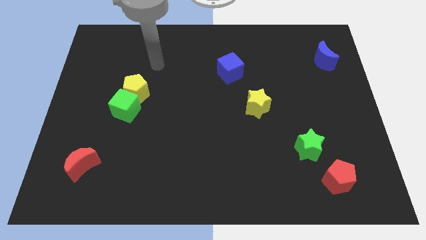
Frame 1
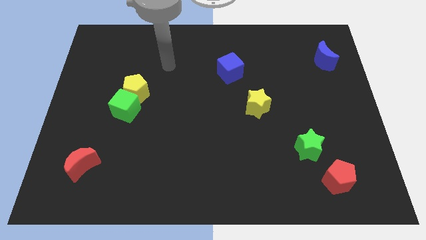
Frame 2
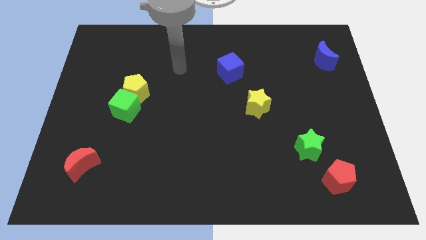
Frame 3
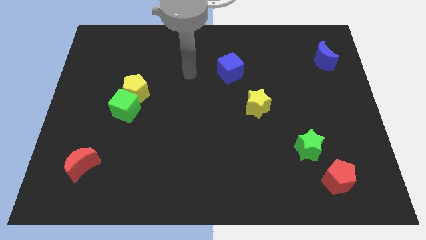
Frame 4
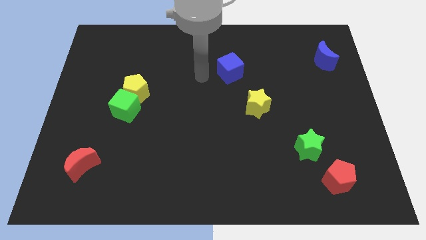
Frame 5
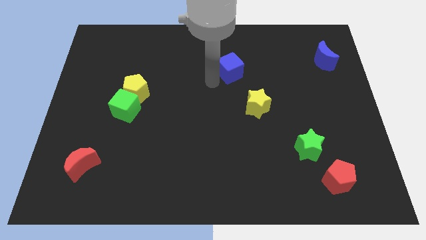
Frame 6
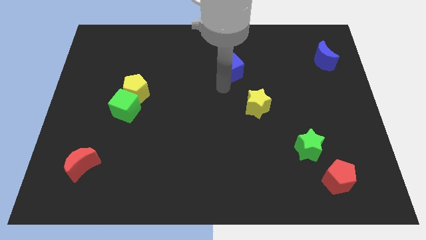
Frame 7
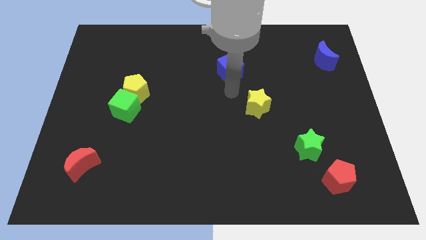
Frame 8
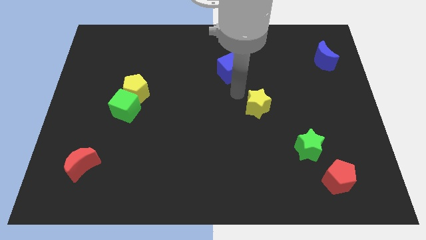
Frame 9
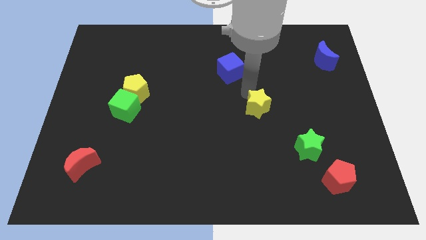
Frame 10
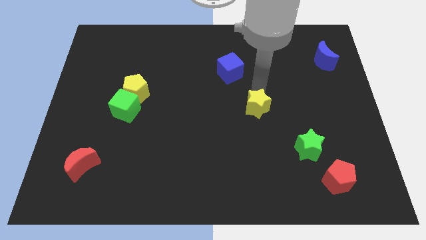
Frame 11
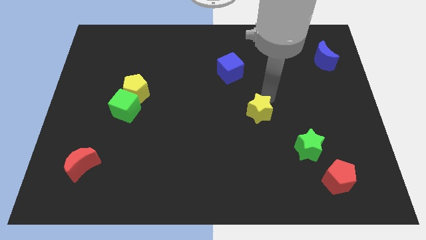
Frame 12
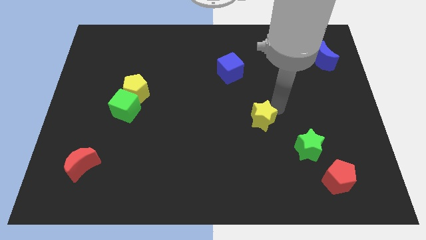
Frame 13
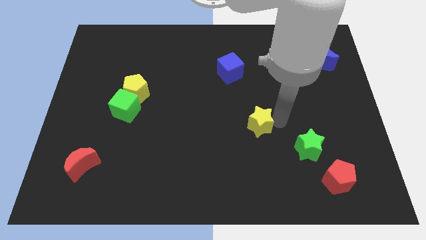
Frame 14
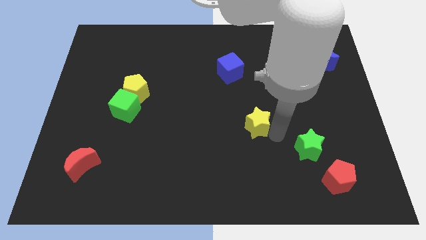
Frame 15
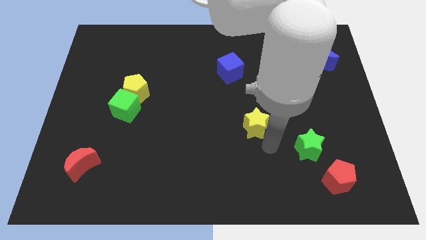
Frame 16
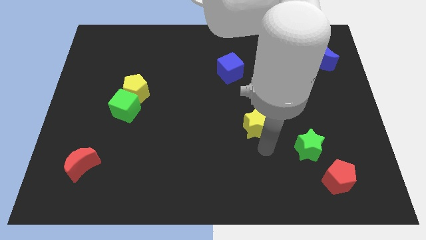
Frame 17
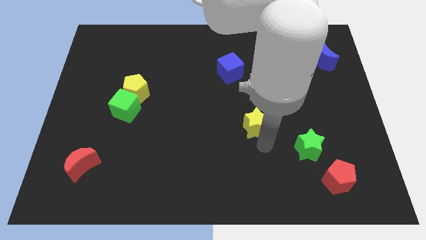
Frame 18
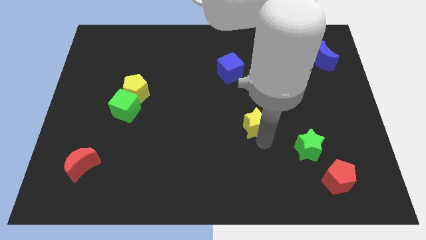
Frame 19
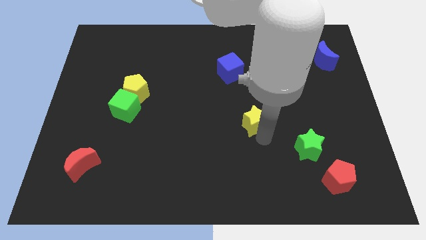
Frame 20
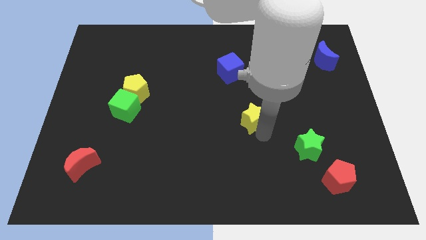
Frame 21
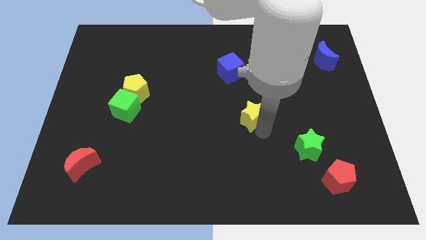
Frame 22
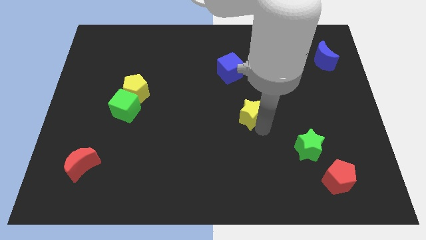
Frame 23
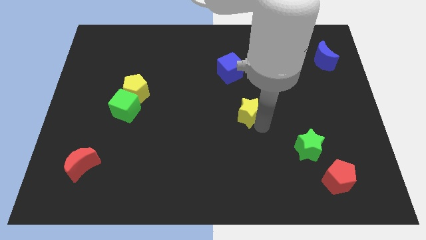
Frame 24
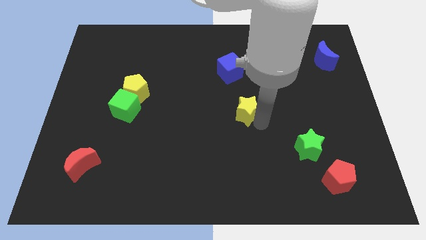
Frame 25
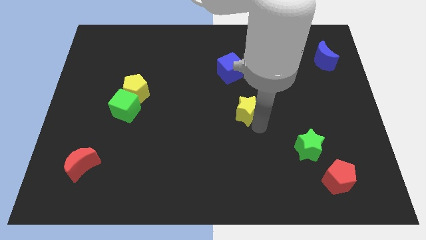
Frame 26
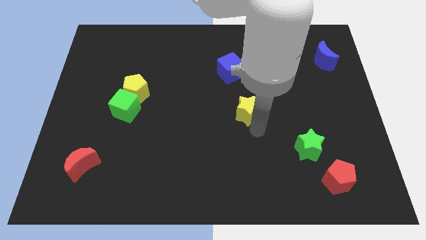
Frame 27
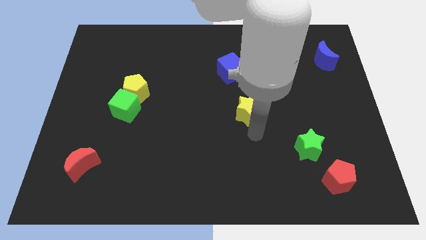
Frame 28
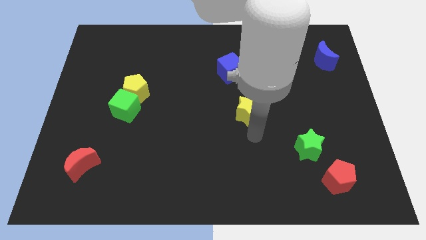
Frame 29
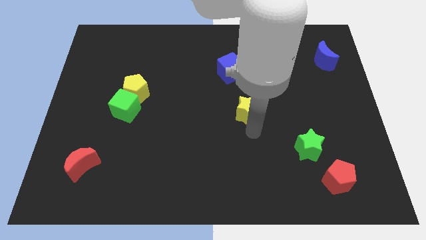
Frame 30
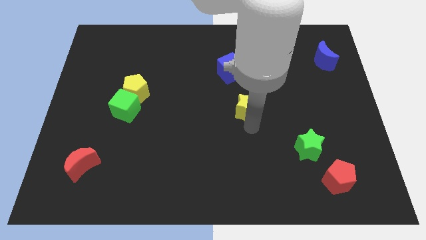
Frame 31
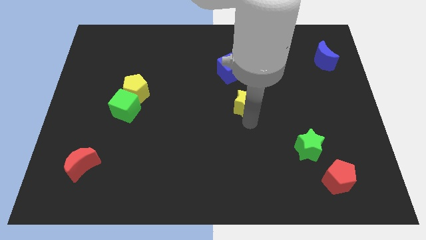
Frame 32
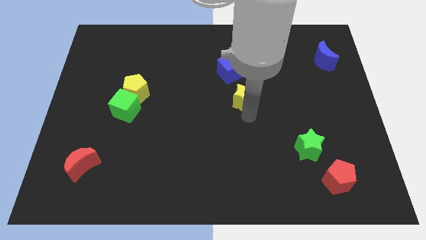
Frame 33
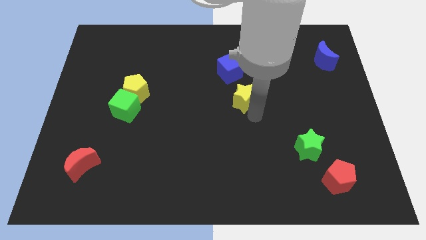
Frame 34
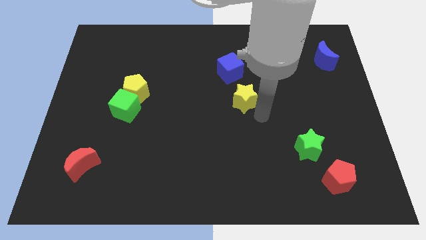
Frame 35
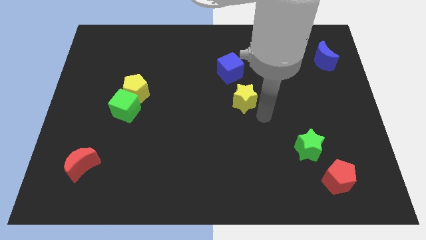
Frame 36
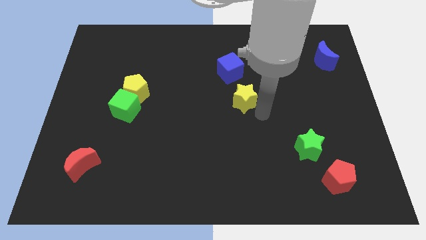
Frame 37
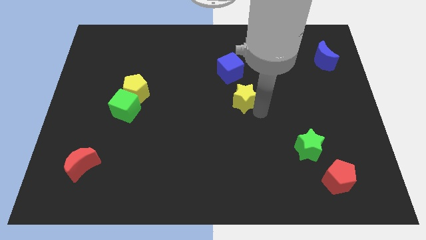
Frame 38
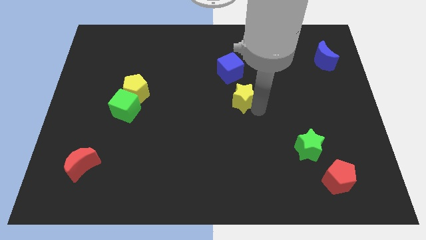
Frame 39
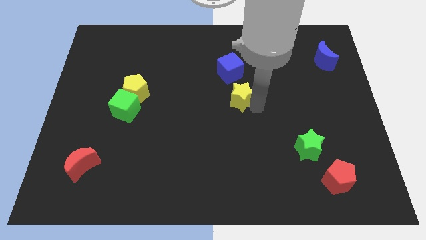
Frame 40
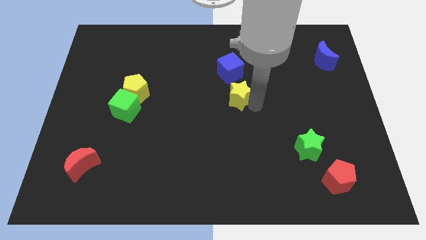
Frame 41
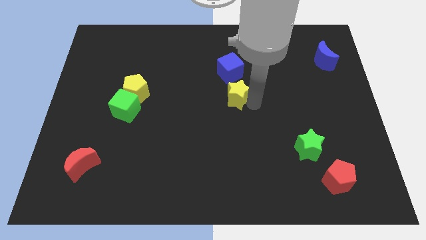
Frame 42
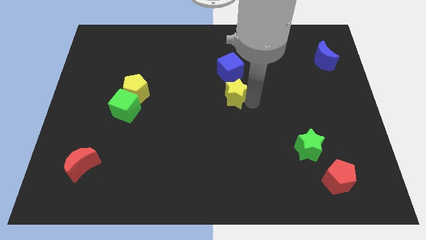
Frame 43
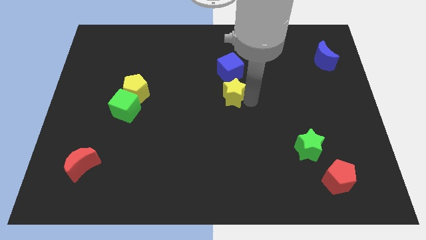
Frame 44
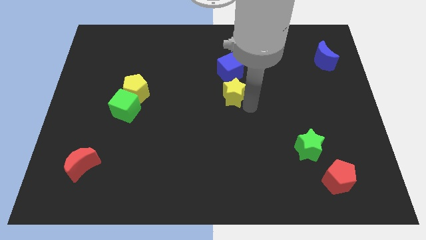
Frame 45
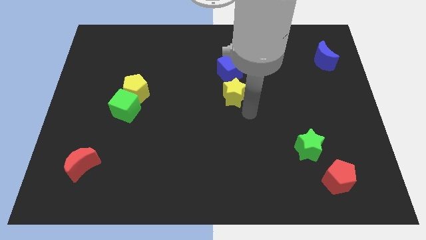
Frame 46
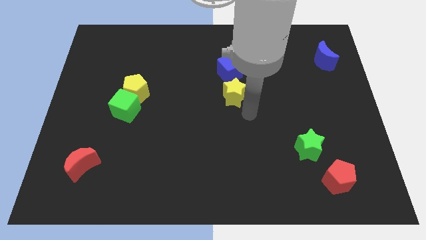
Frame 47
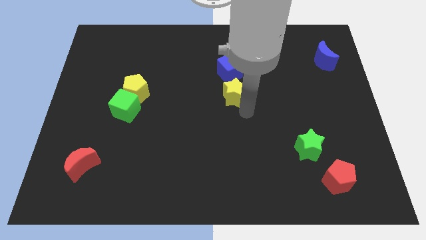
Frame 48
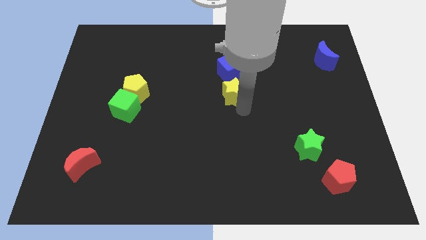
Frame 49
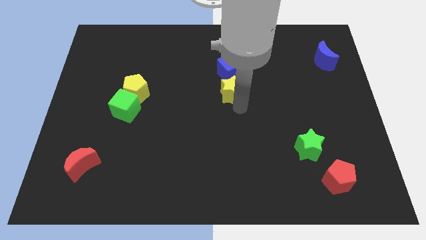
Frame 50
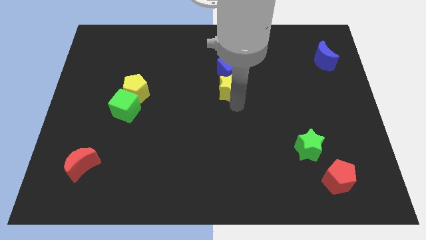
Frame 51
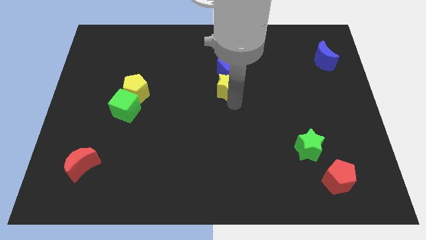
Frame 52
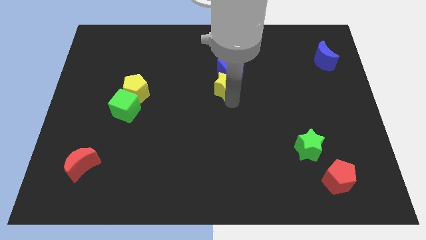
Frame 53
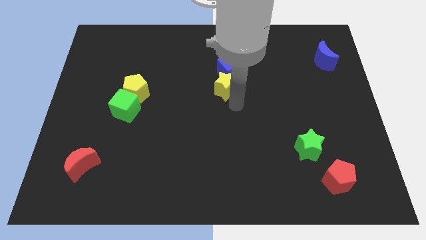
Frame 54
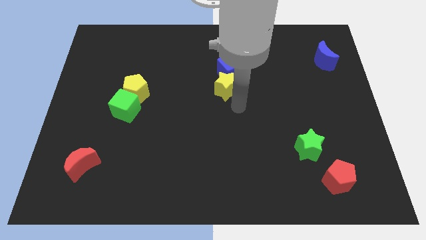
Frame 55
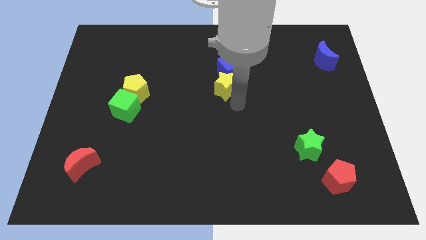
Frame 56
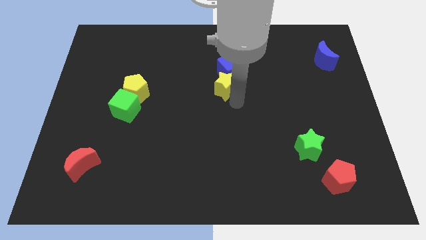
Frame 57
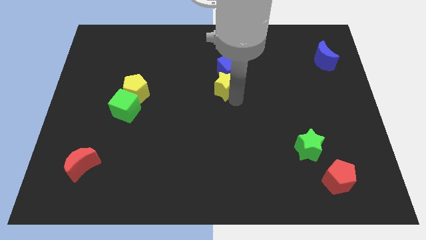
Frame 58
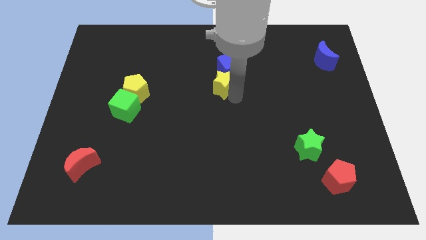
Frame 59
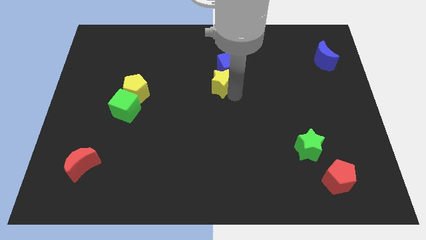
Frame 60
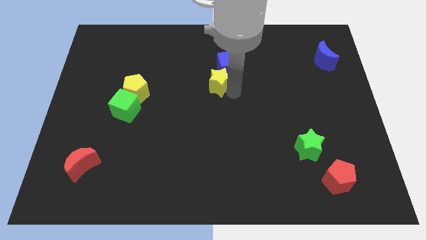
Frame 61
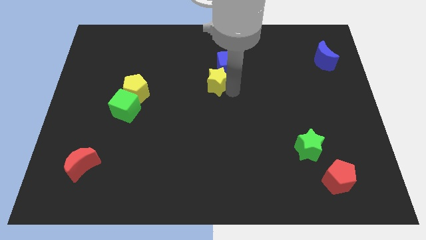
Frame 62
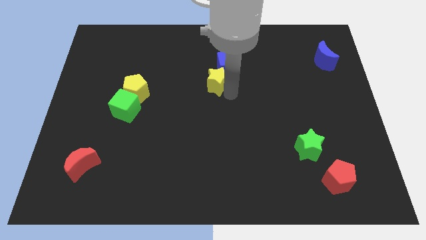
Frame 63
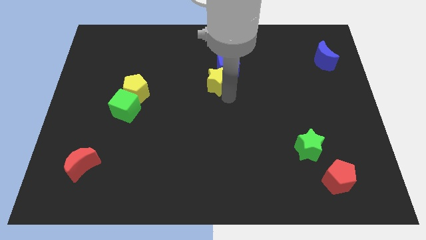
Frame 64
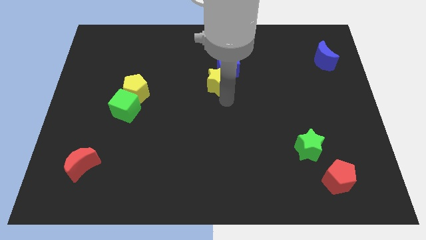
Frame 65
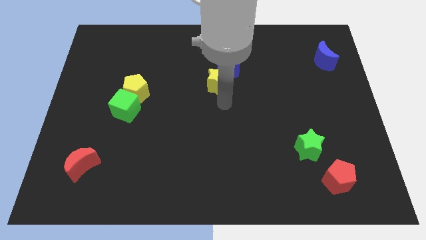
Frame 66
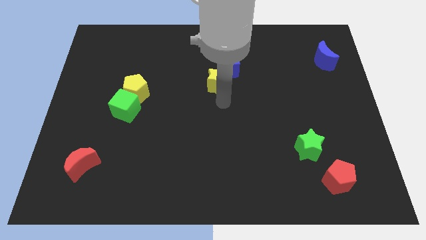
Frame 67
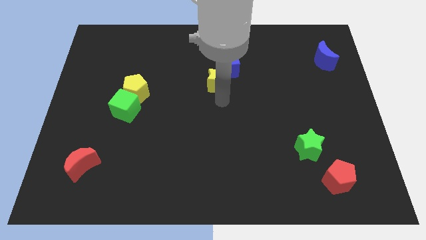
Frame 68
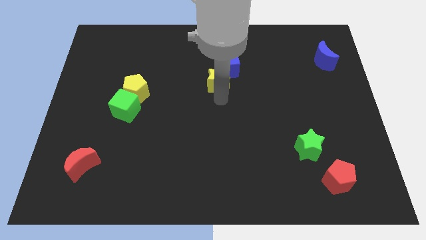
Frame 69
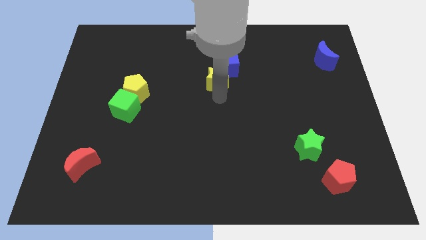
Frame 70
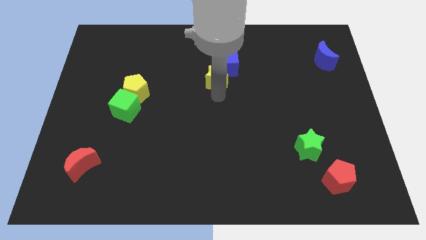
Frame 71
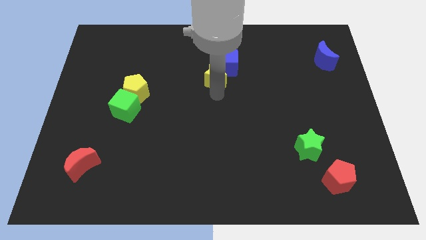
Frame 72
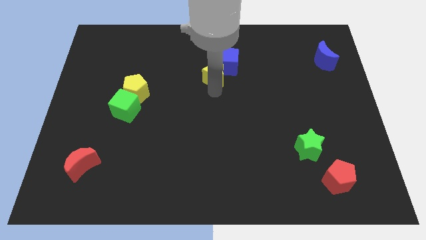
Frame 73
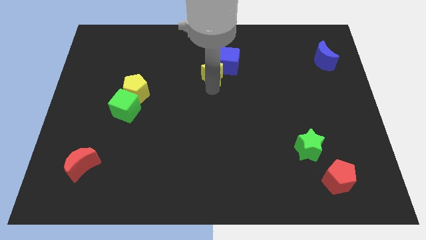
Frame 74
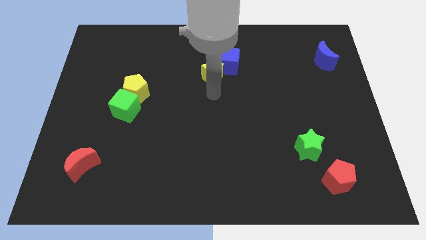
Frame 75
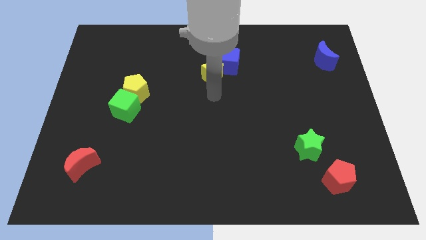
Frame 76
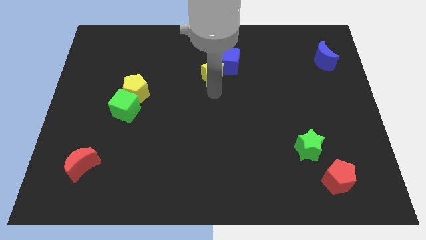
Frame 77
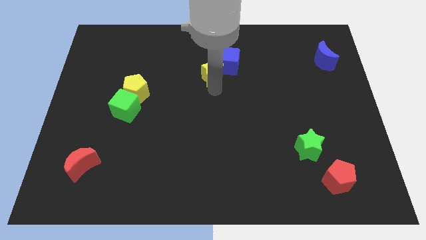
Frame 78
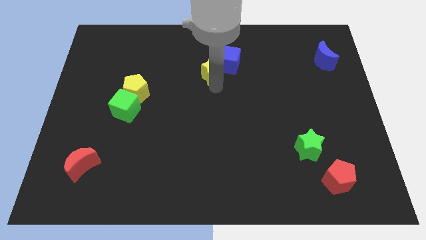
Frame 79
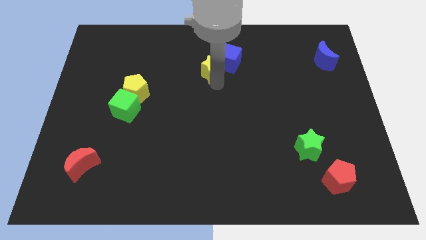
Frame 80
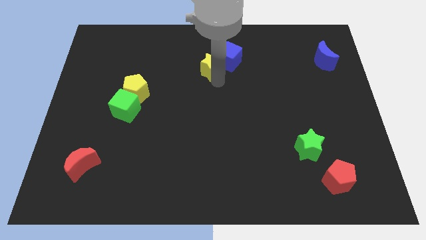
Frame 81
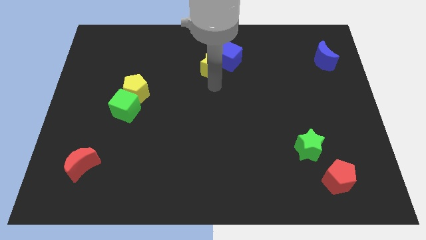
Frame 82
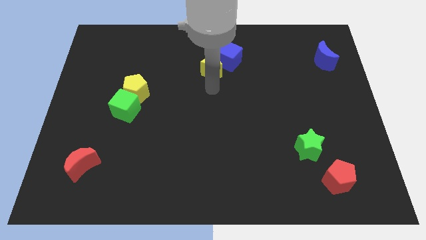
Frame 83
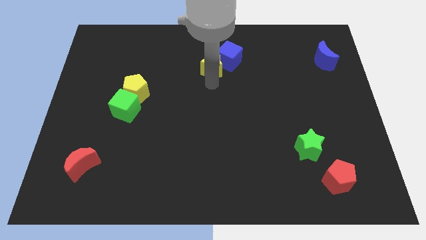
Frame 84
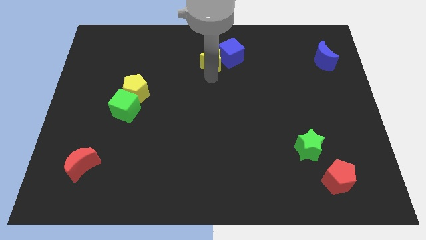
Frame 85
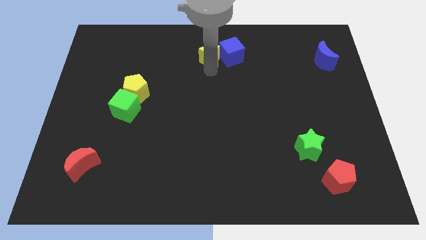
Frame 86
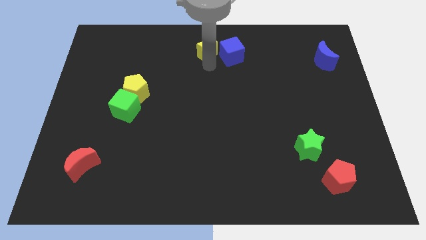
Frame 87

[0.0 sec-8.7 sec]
slide the yellow star diagonally up and to the left of the blue cube
